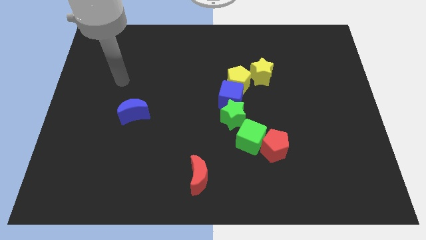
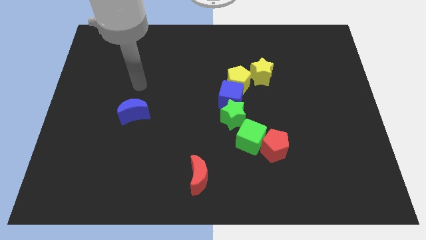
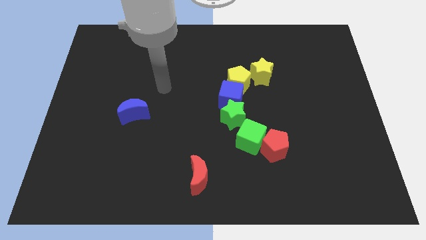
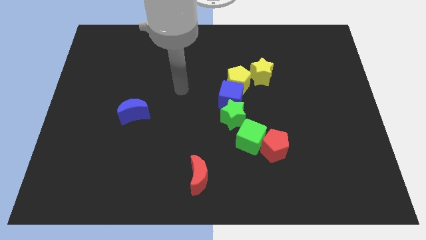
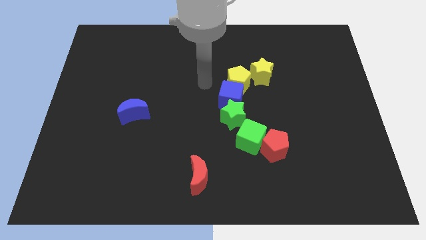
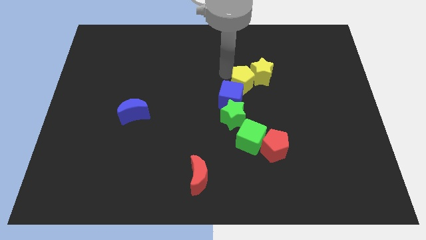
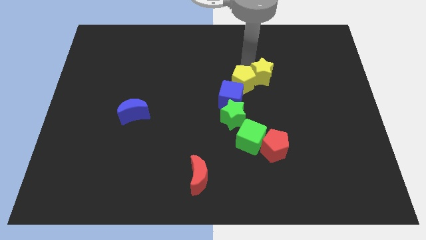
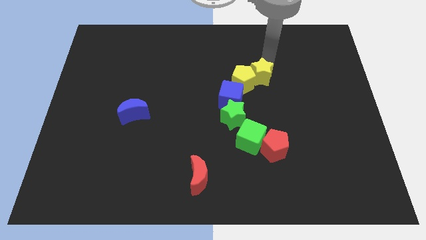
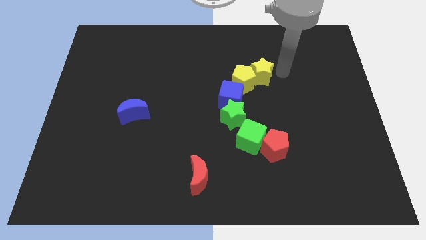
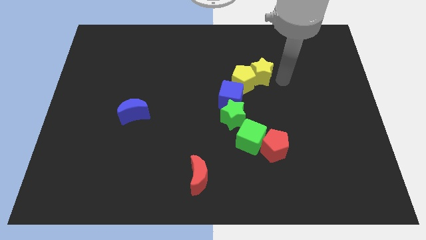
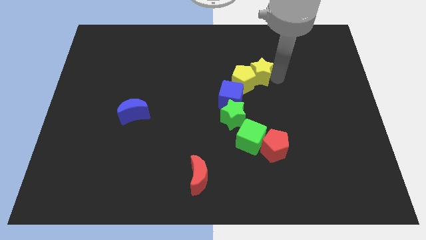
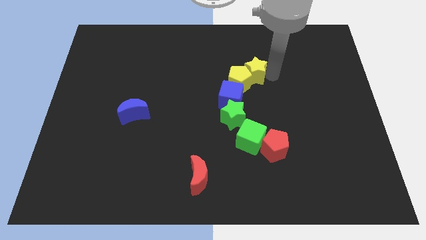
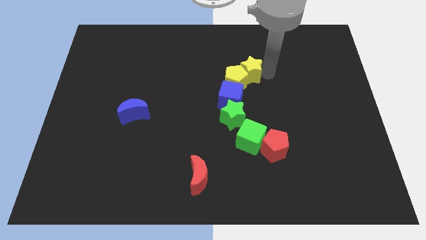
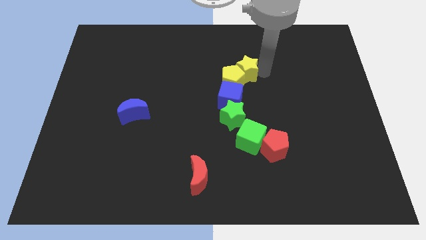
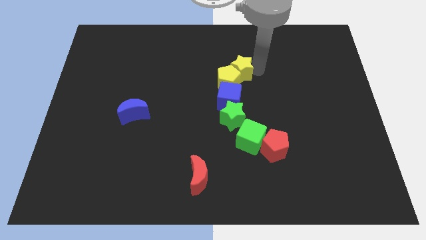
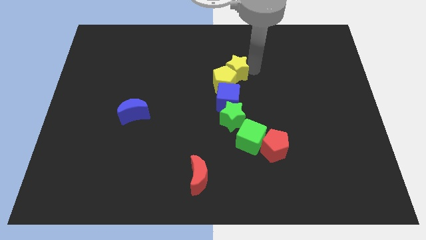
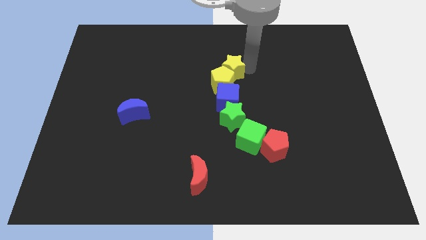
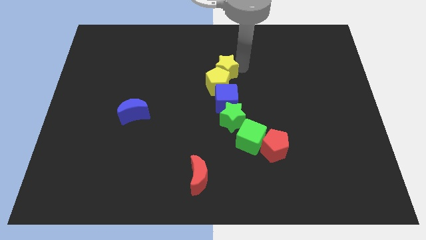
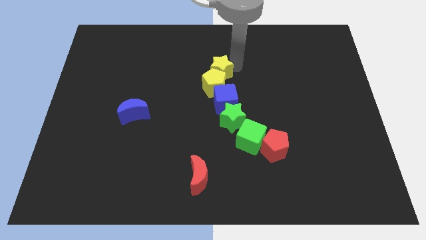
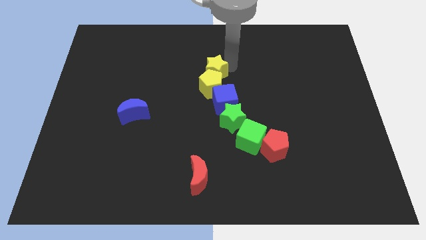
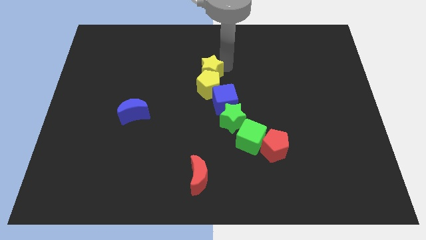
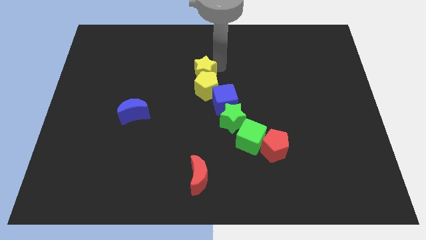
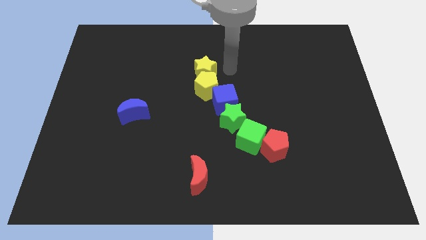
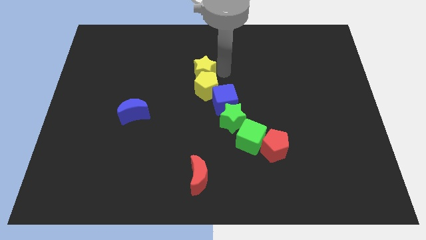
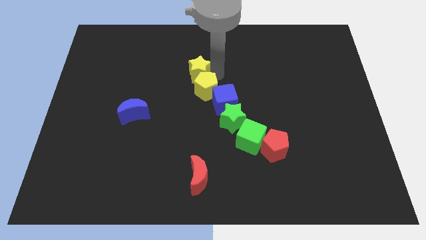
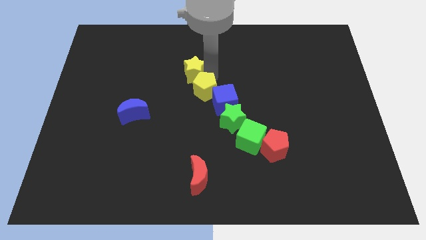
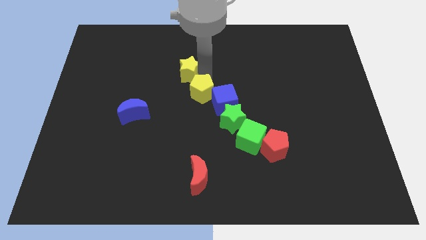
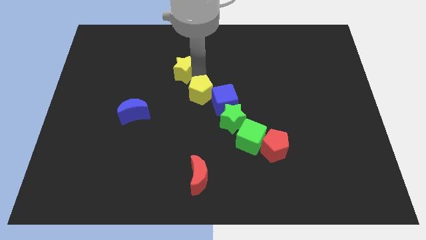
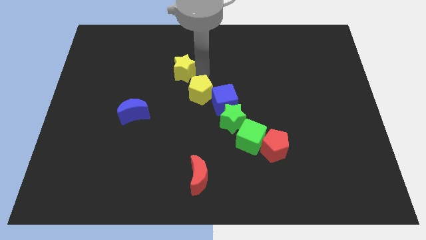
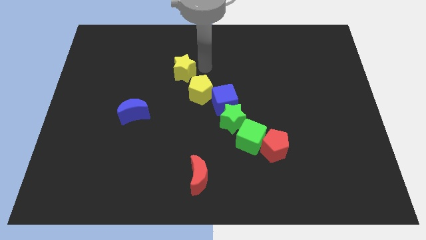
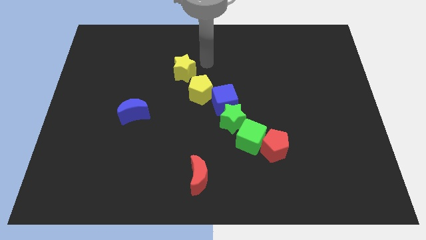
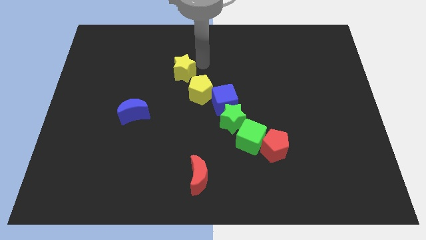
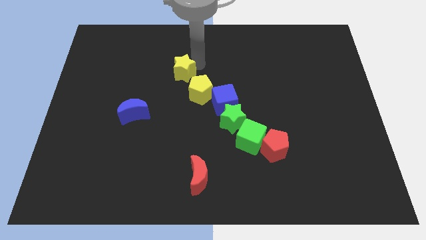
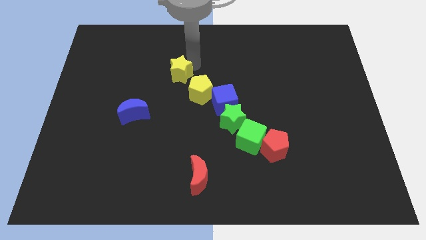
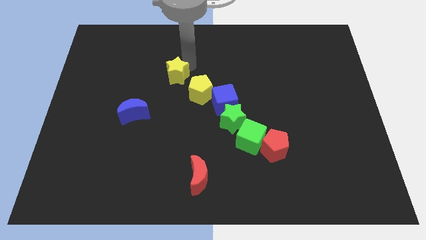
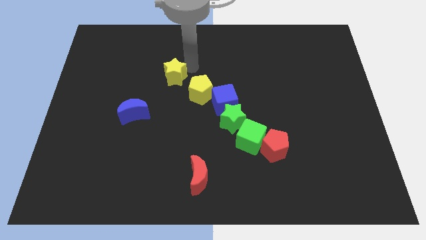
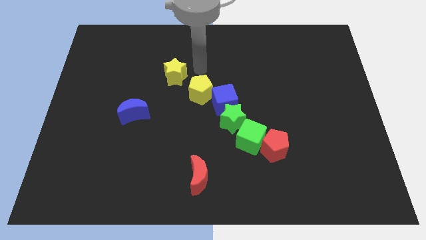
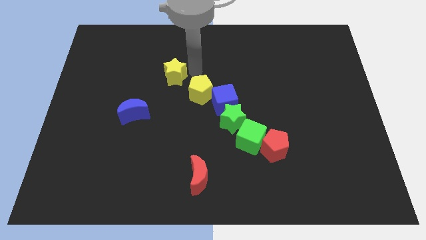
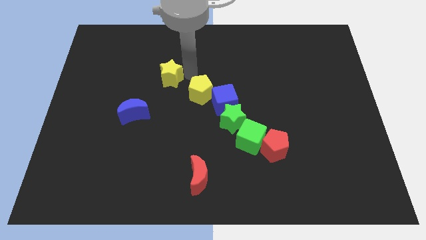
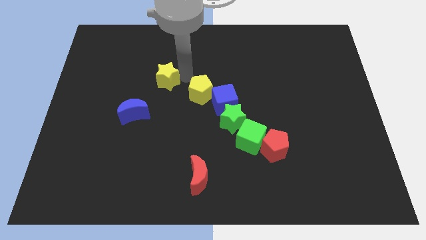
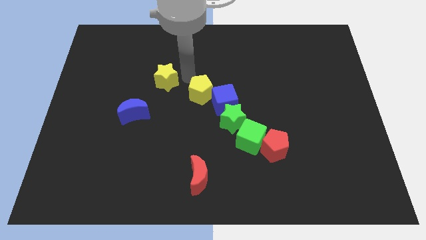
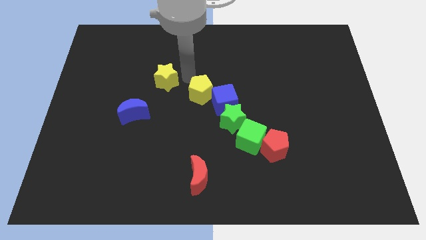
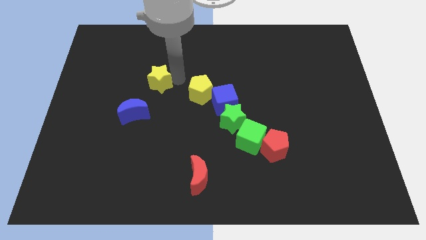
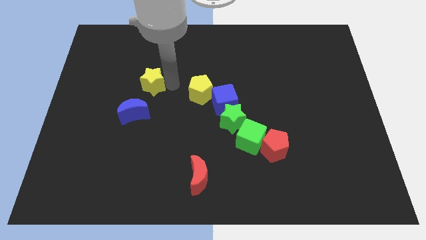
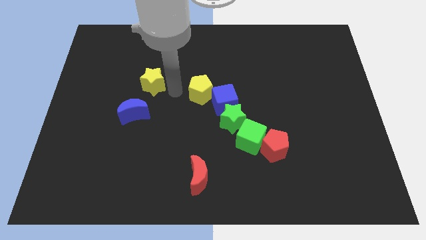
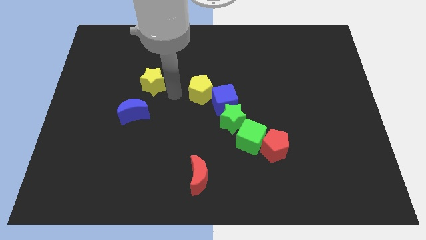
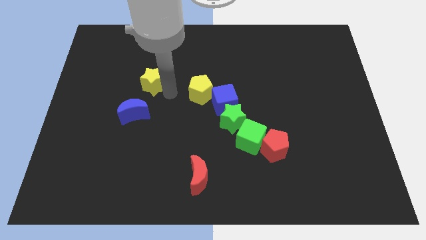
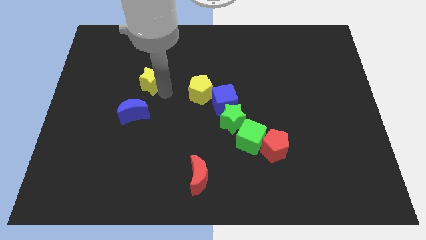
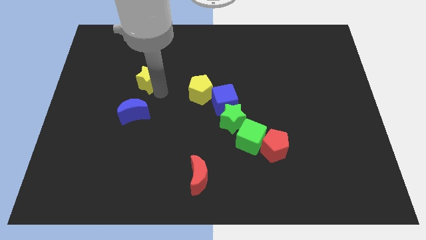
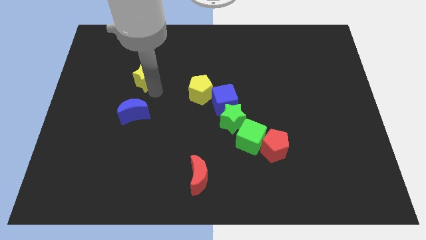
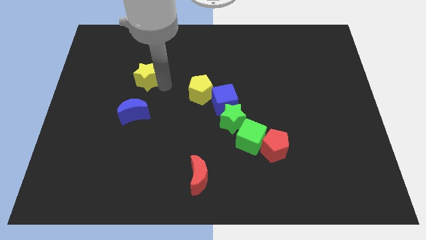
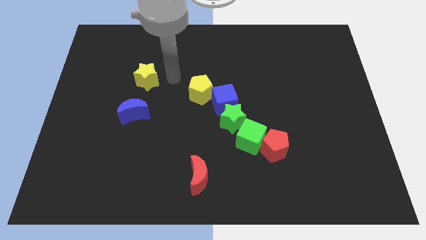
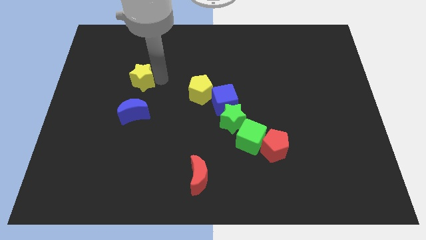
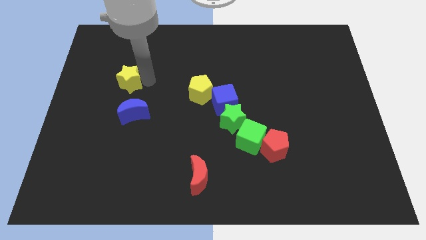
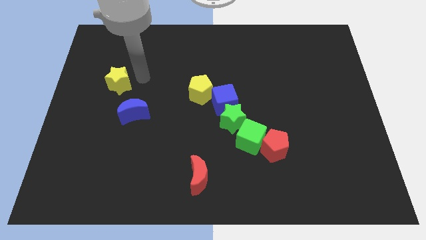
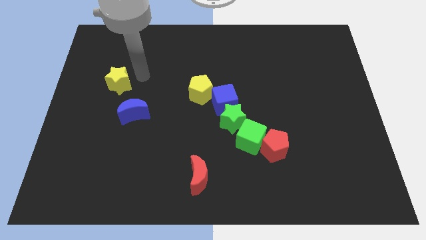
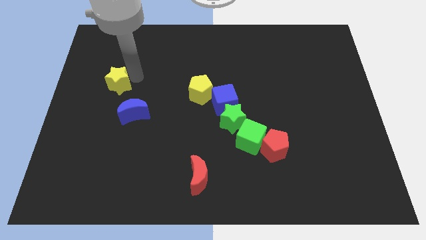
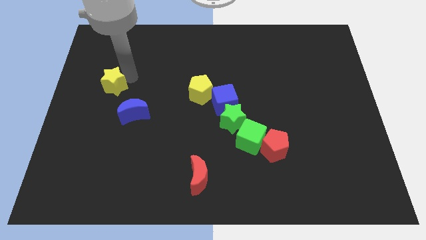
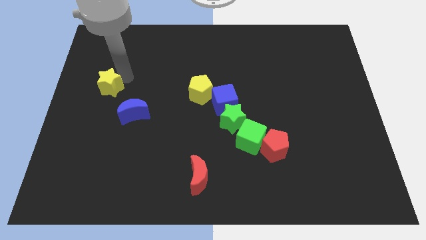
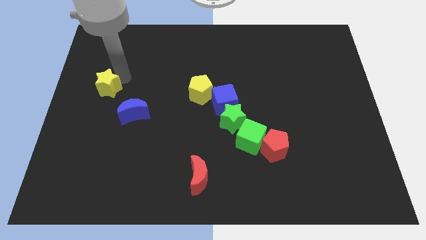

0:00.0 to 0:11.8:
push the yellow star to the center left

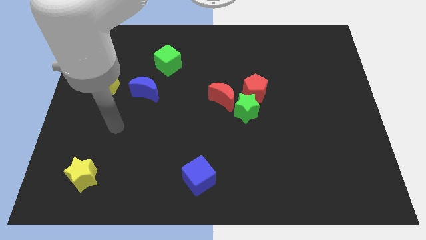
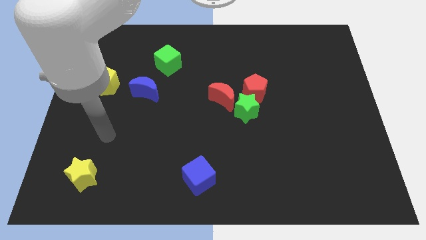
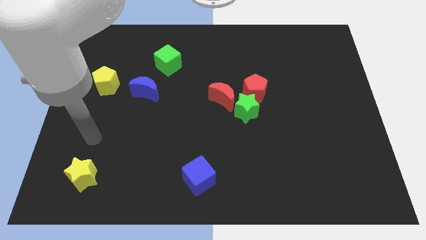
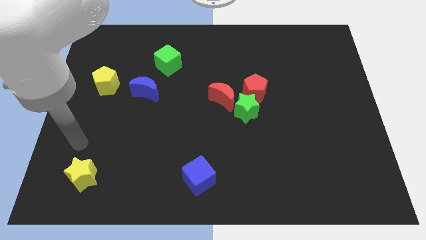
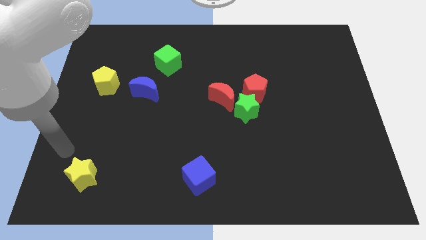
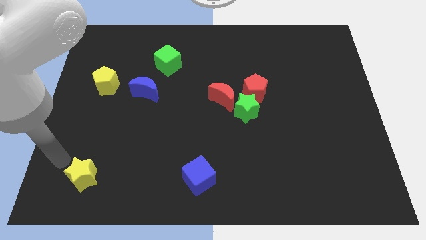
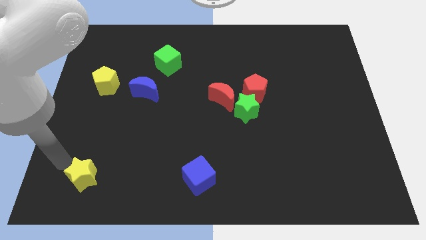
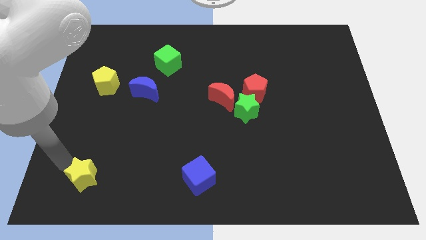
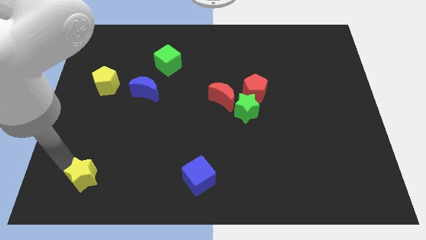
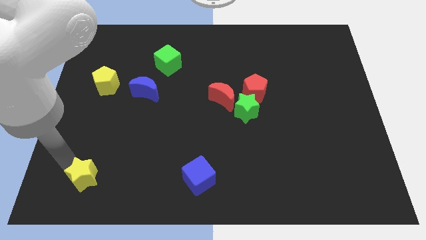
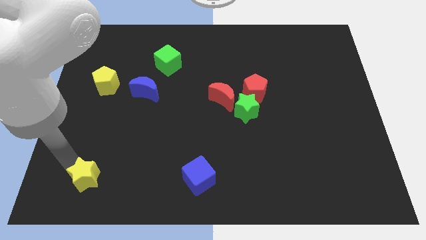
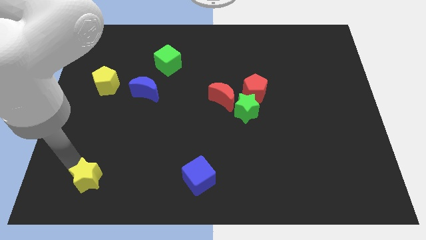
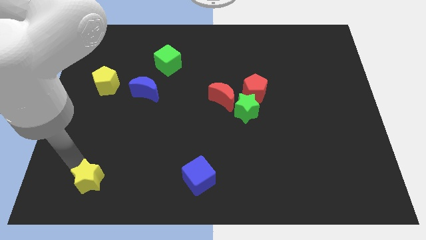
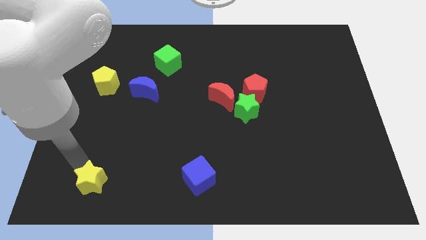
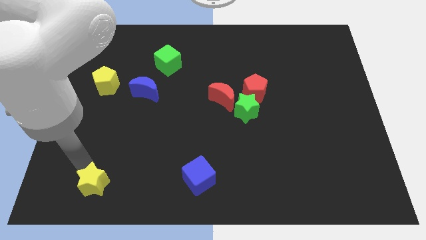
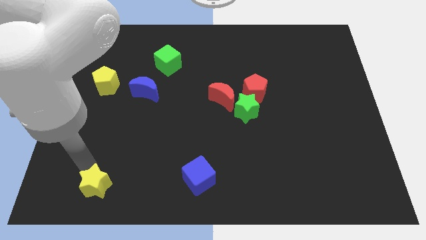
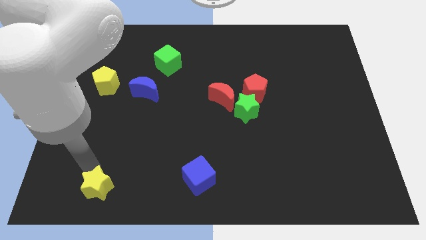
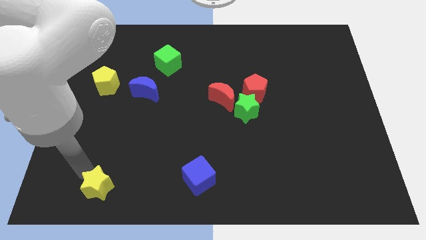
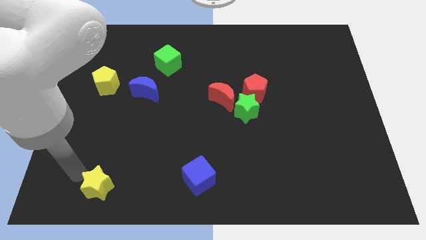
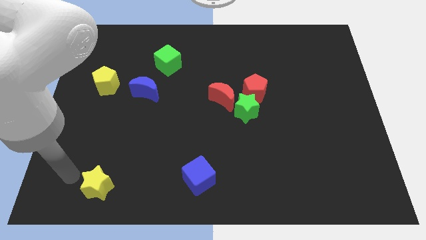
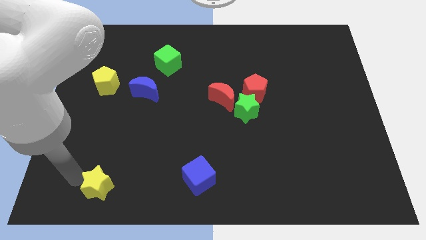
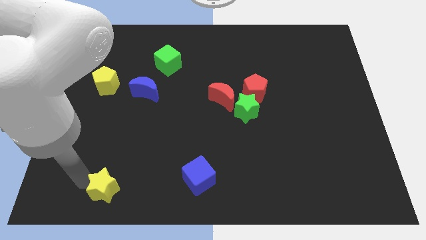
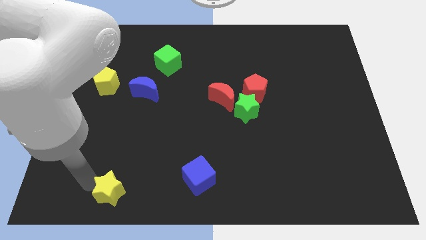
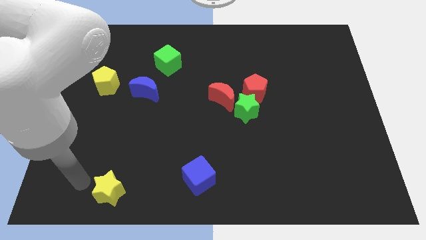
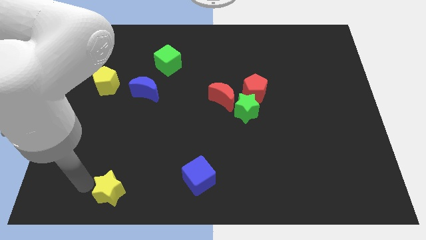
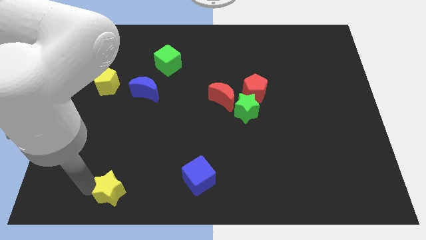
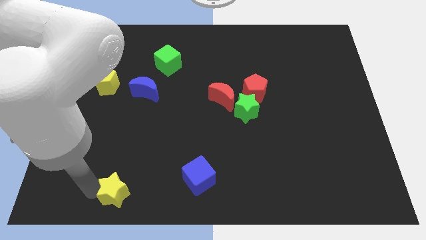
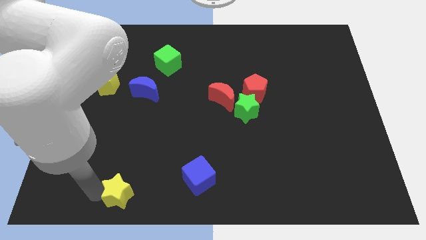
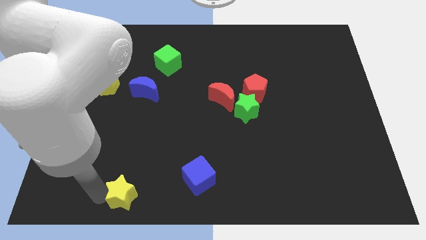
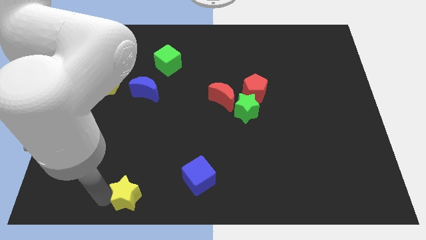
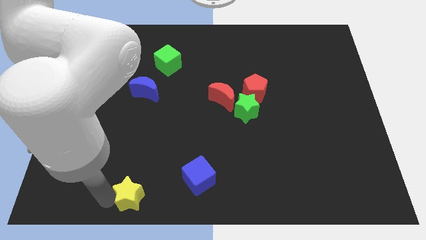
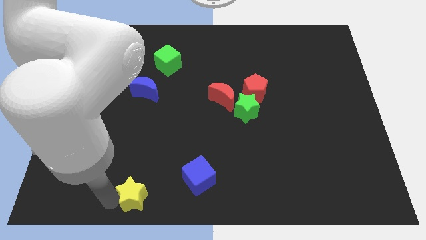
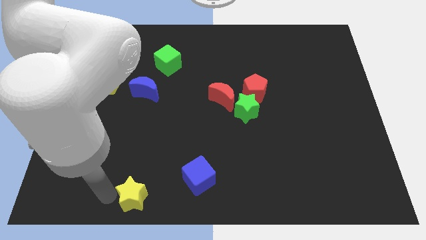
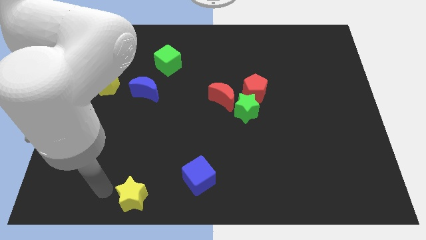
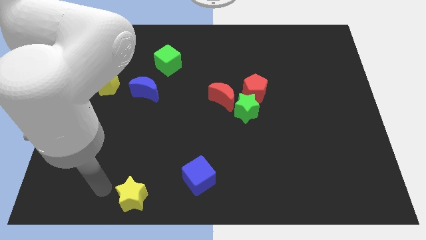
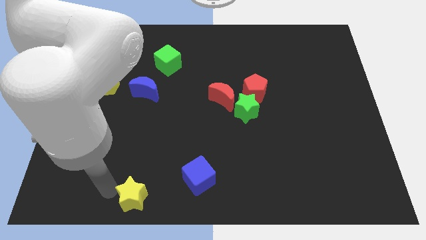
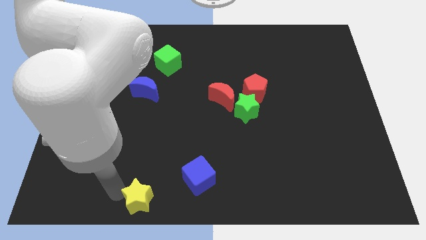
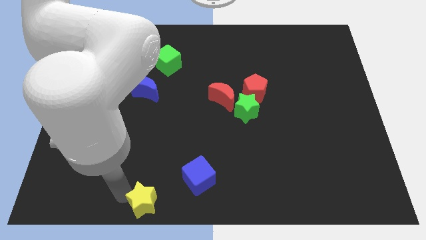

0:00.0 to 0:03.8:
push the yellow star to the bottom side
